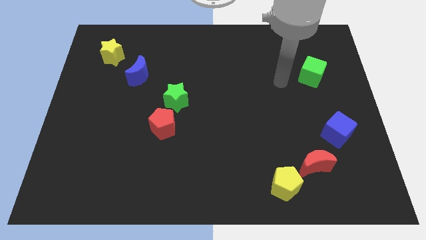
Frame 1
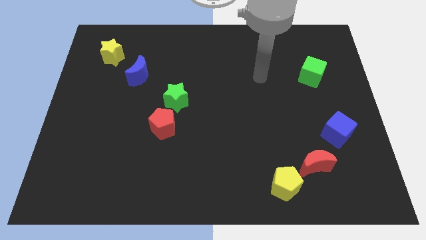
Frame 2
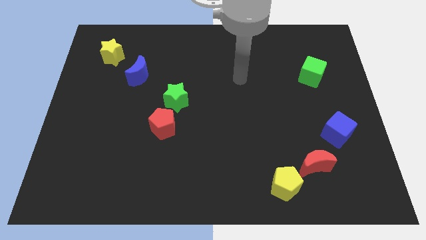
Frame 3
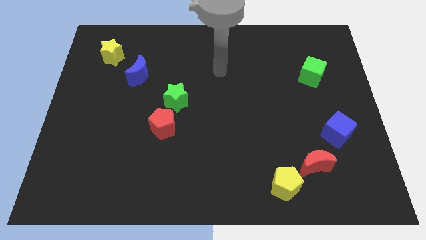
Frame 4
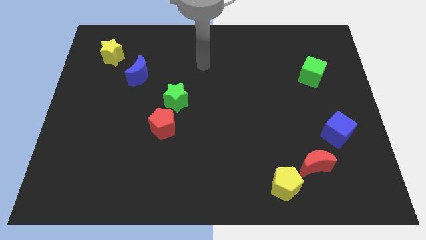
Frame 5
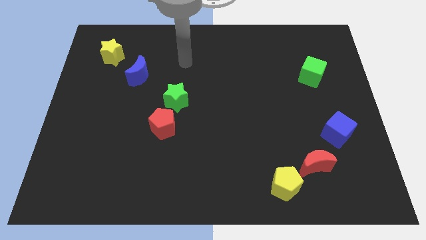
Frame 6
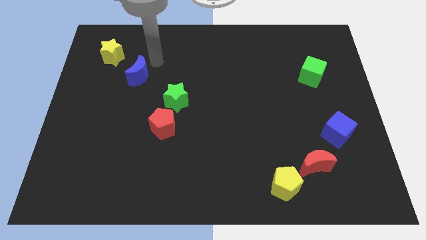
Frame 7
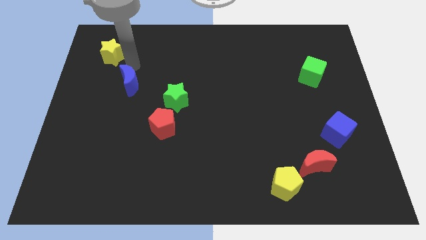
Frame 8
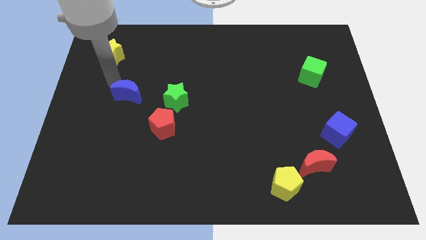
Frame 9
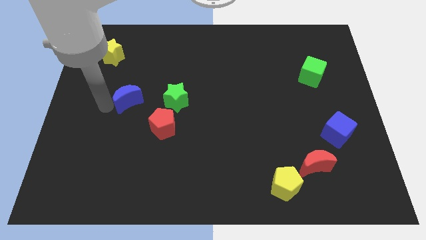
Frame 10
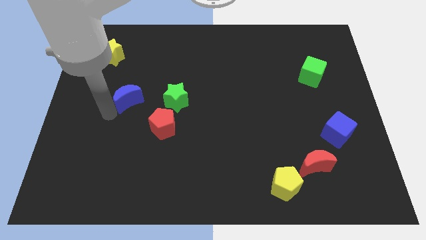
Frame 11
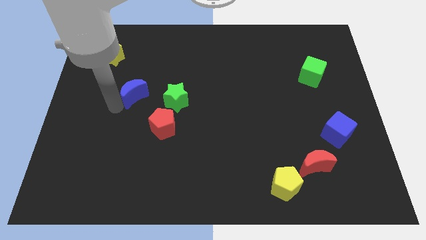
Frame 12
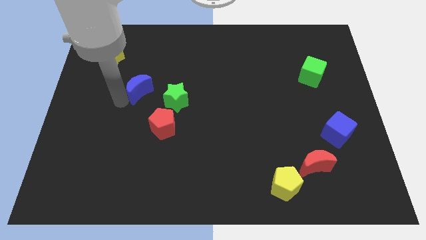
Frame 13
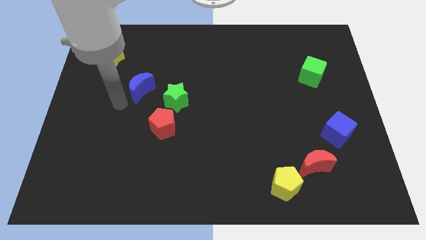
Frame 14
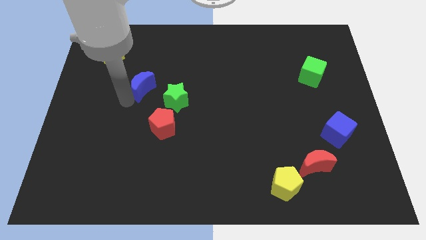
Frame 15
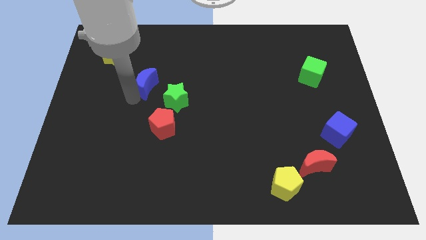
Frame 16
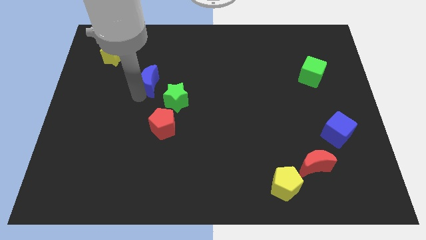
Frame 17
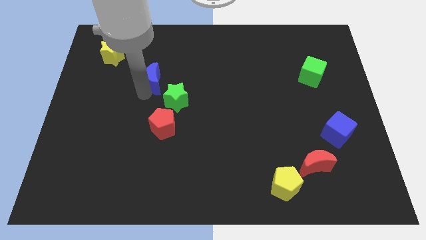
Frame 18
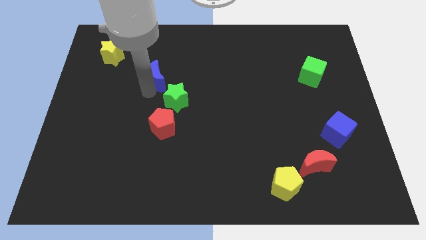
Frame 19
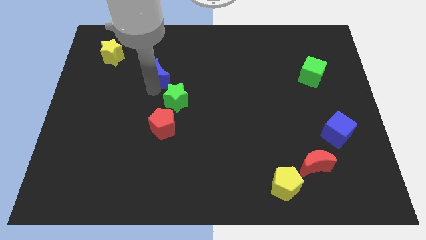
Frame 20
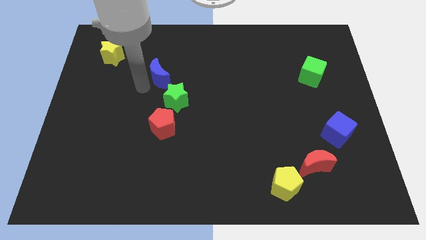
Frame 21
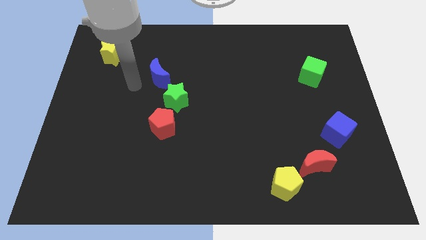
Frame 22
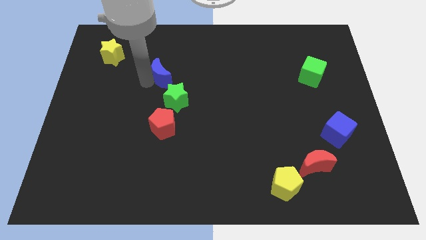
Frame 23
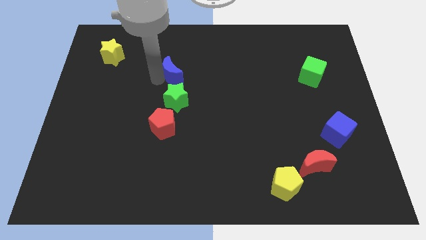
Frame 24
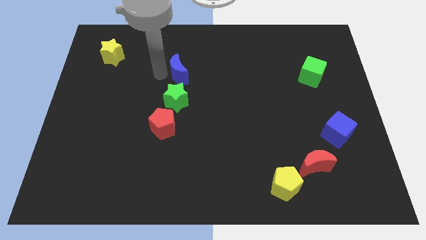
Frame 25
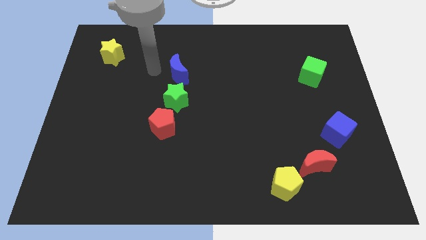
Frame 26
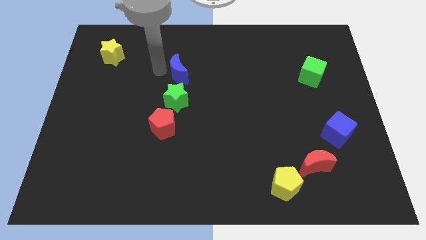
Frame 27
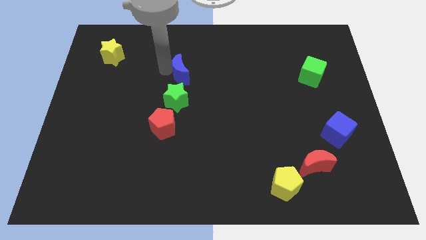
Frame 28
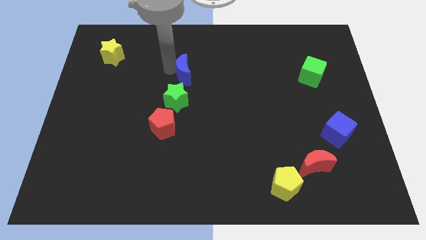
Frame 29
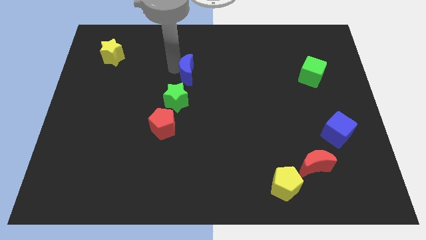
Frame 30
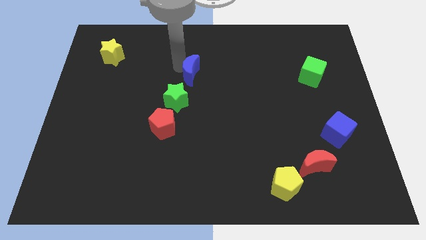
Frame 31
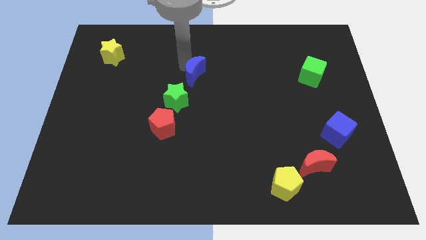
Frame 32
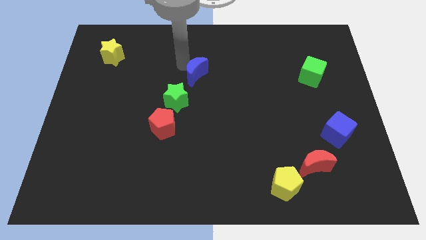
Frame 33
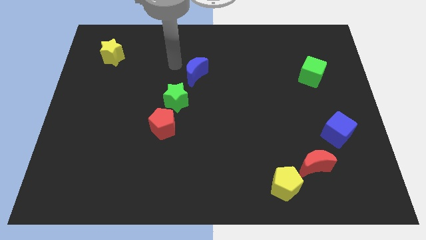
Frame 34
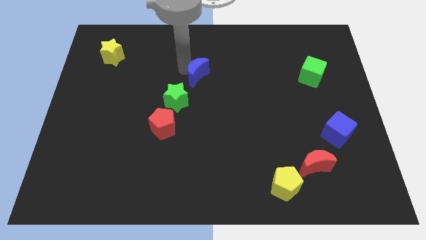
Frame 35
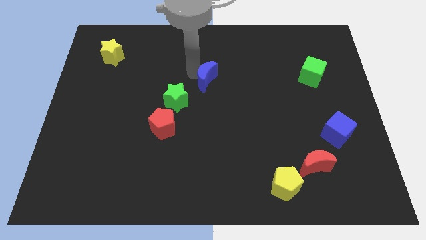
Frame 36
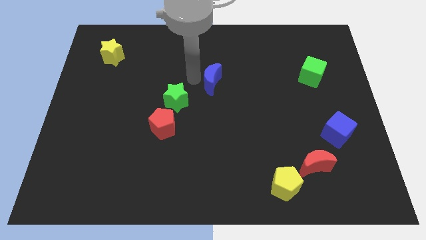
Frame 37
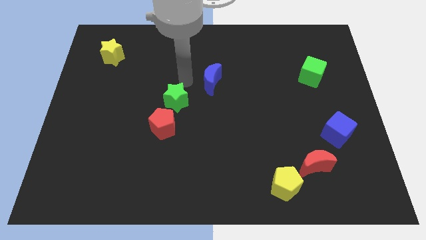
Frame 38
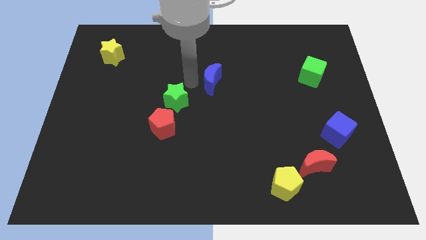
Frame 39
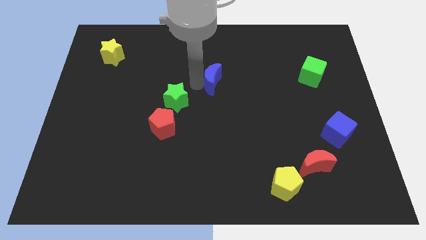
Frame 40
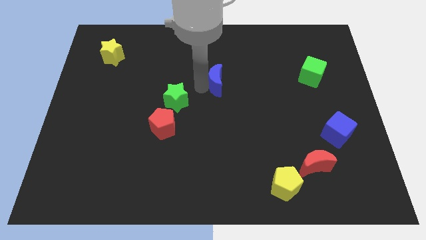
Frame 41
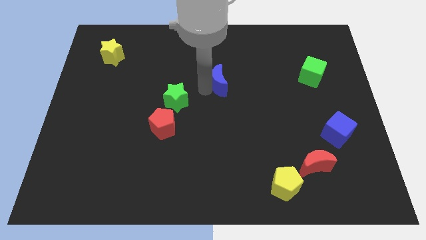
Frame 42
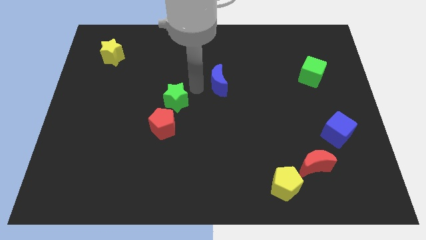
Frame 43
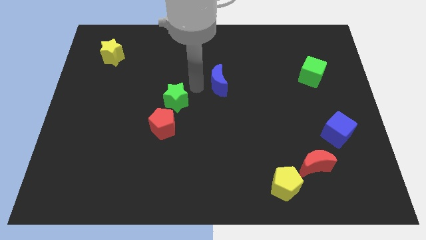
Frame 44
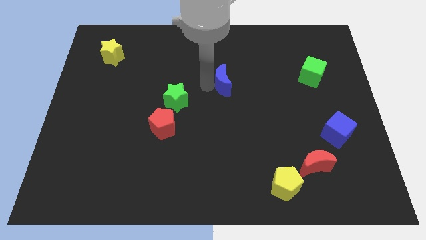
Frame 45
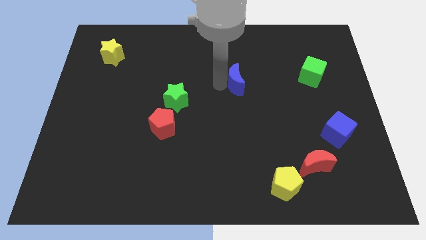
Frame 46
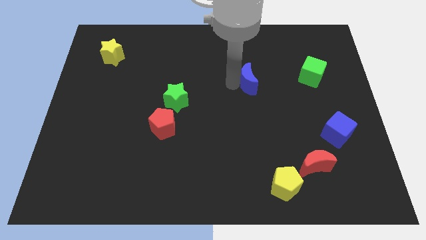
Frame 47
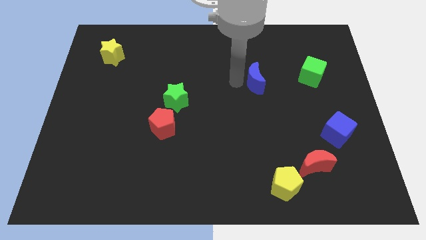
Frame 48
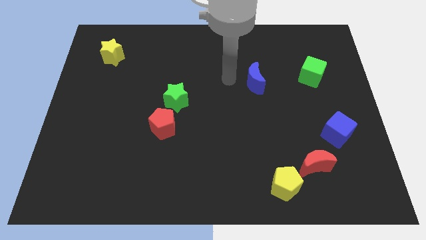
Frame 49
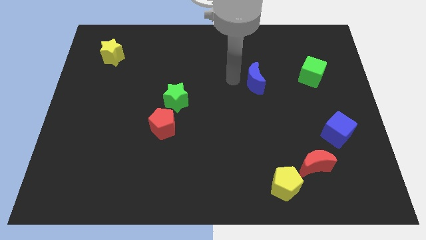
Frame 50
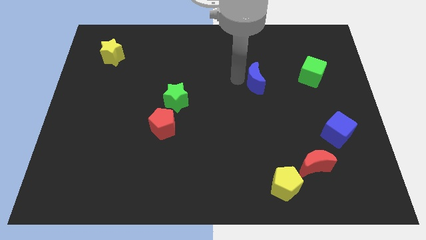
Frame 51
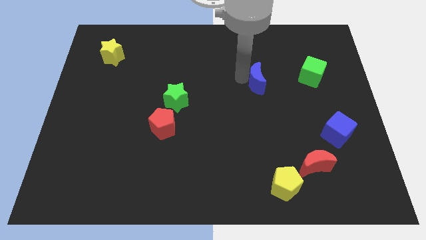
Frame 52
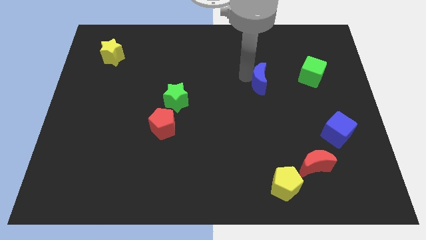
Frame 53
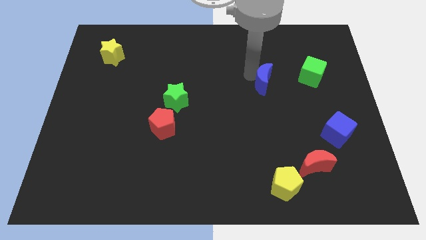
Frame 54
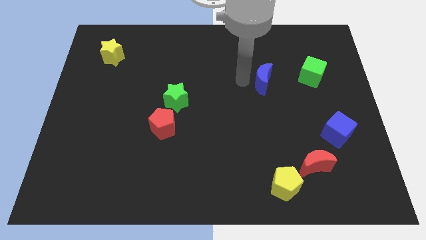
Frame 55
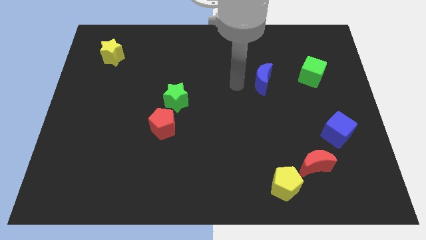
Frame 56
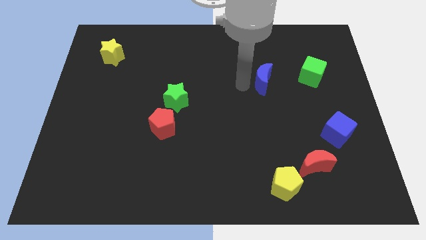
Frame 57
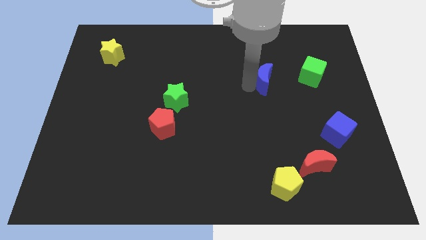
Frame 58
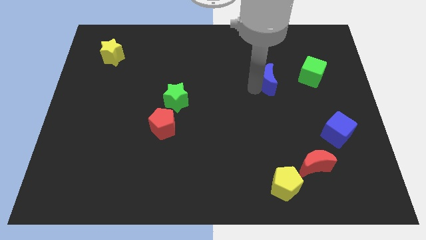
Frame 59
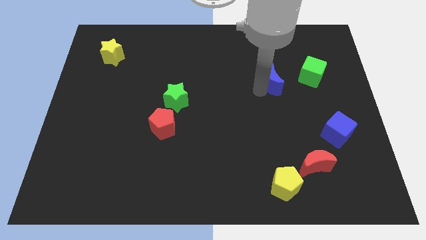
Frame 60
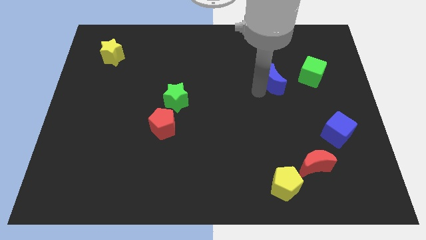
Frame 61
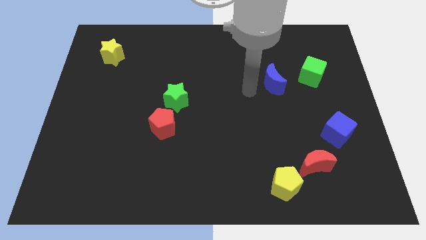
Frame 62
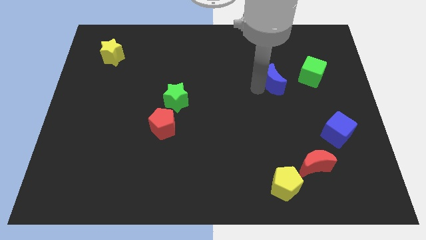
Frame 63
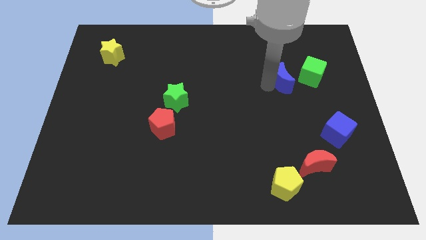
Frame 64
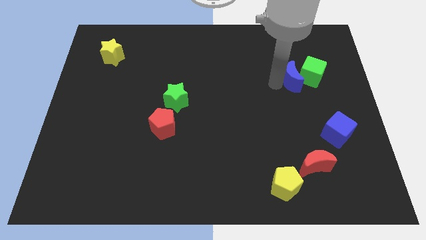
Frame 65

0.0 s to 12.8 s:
move the blue moon next to the green cube

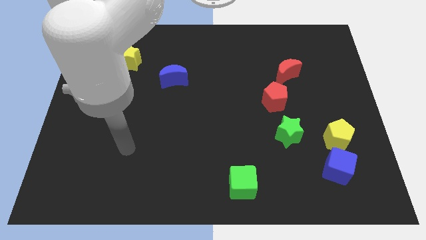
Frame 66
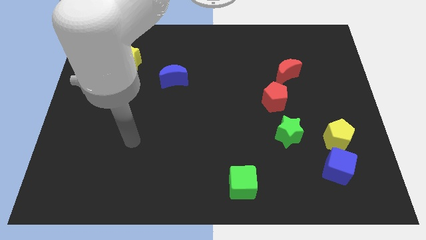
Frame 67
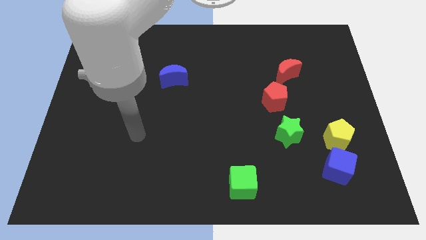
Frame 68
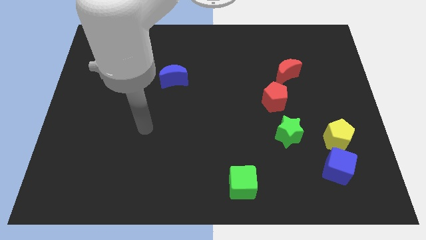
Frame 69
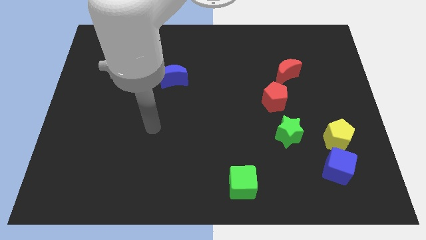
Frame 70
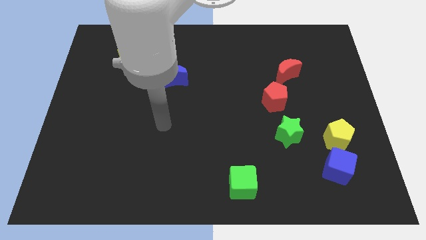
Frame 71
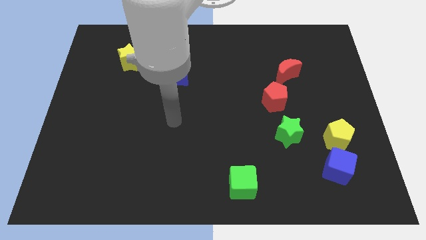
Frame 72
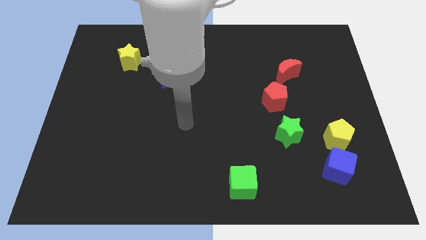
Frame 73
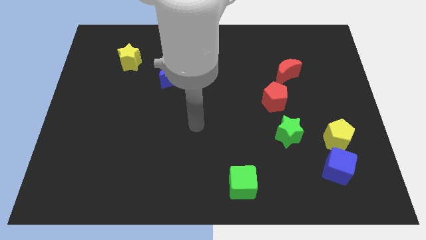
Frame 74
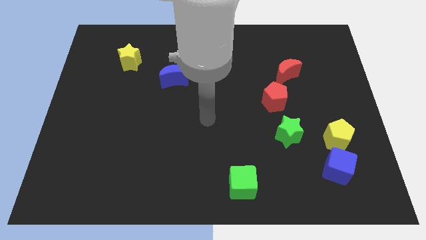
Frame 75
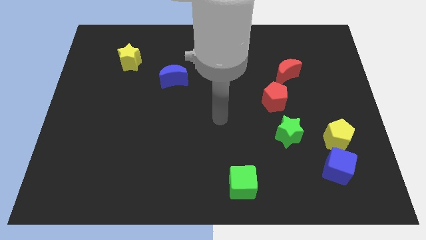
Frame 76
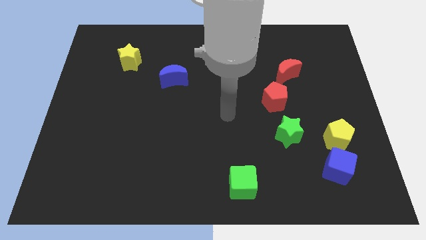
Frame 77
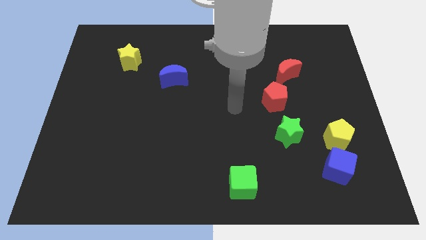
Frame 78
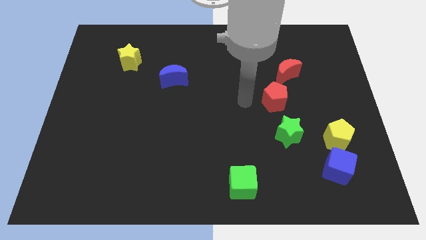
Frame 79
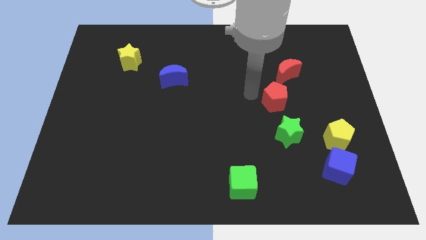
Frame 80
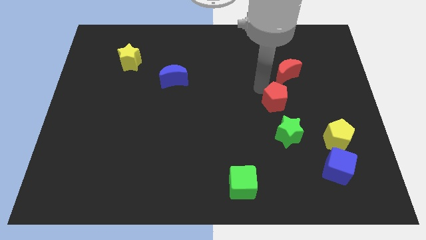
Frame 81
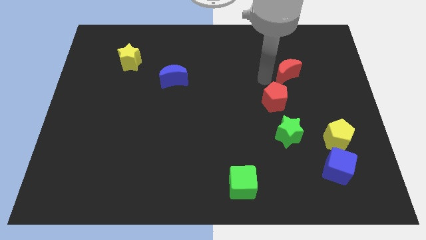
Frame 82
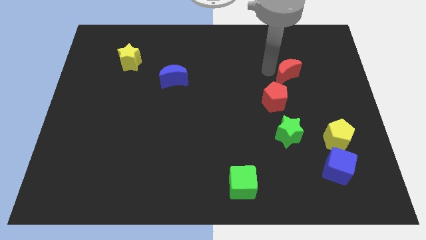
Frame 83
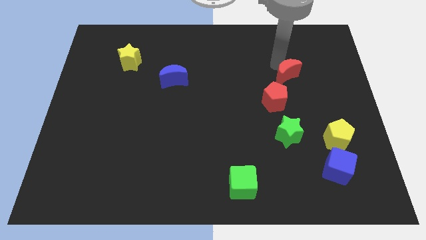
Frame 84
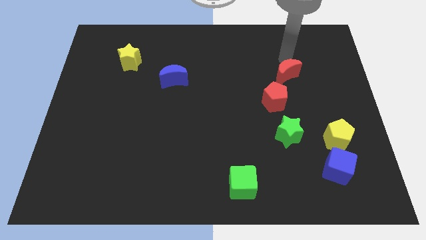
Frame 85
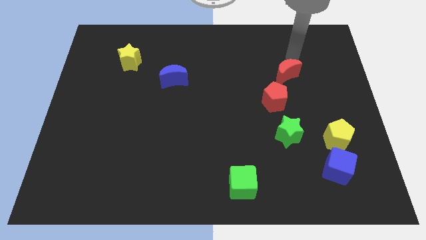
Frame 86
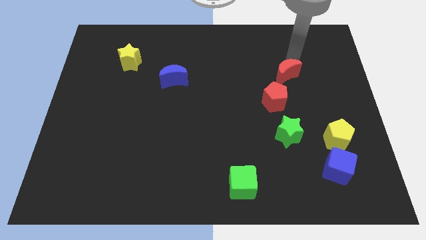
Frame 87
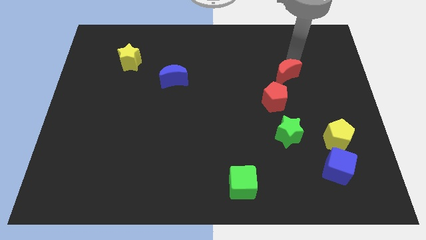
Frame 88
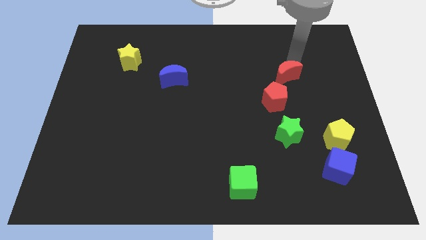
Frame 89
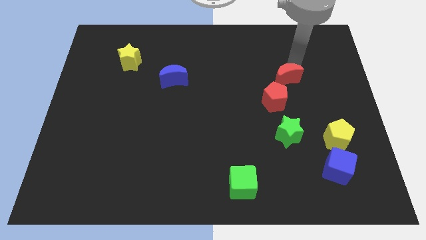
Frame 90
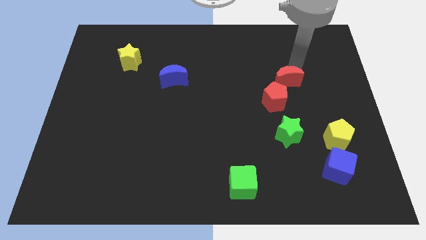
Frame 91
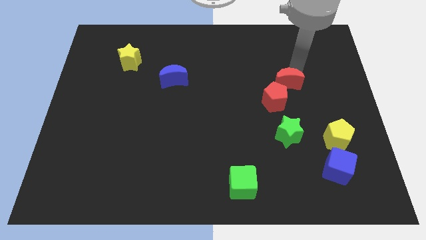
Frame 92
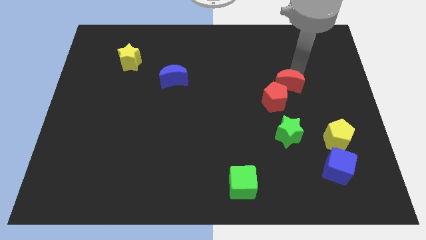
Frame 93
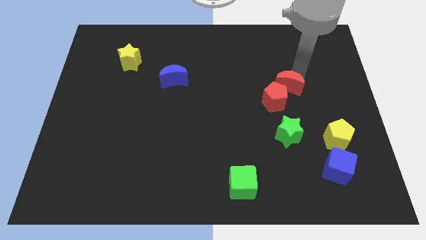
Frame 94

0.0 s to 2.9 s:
move the red moon close to the red pentagon
